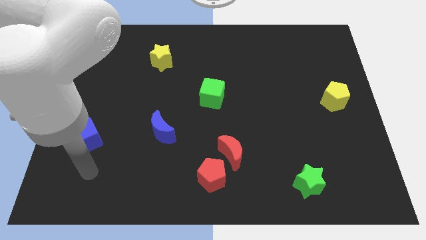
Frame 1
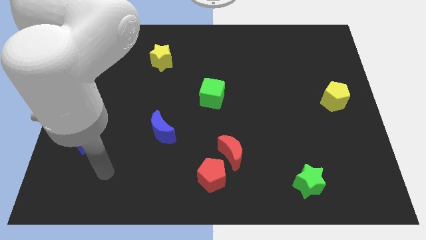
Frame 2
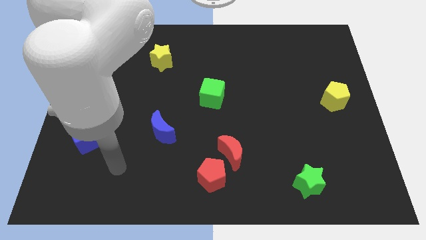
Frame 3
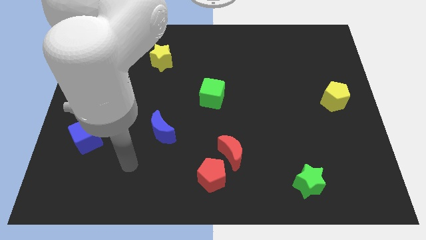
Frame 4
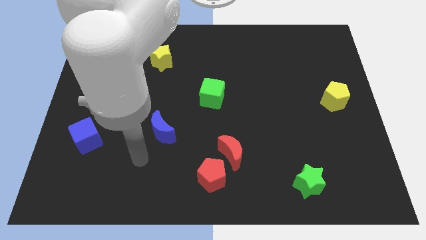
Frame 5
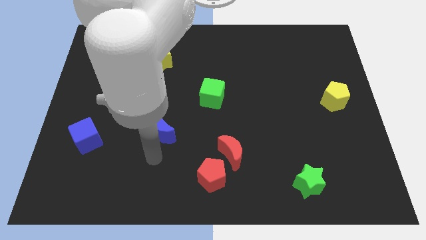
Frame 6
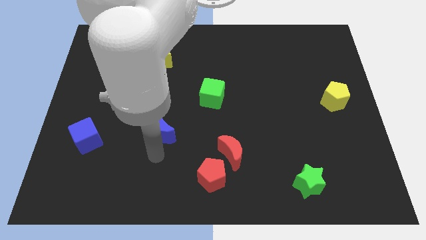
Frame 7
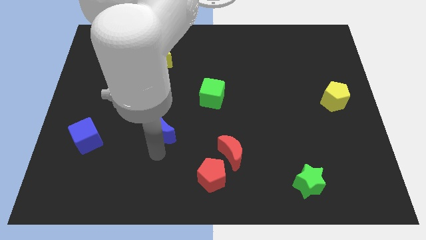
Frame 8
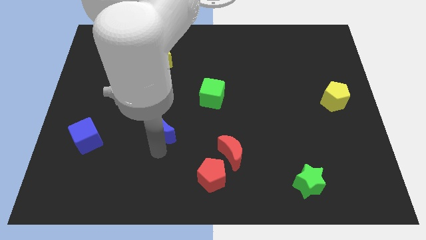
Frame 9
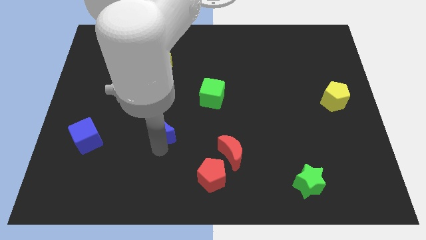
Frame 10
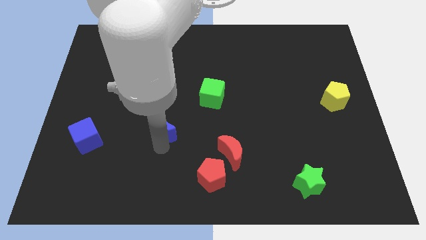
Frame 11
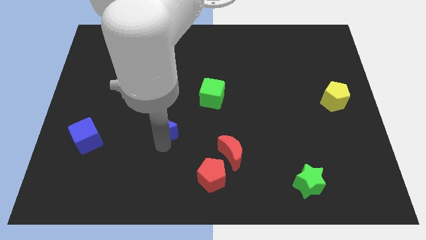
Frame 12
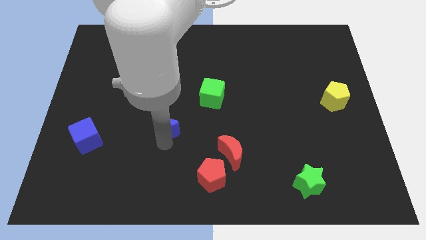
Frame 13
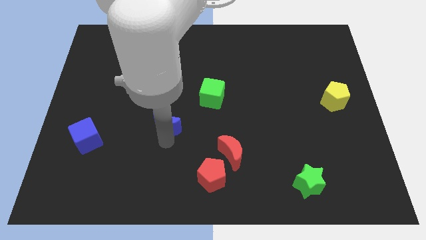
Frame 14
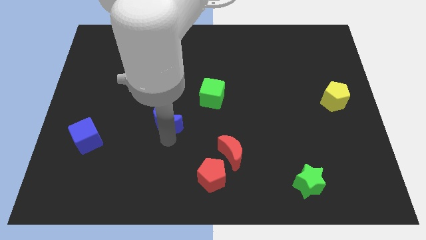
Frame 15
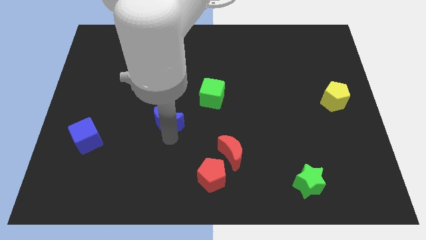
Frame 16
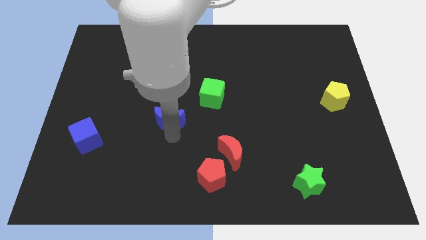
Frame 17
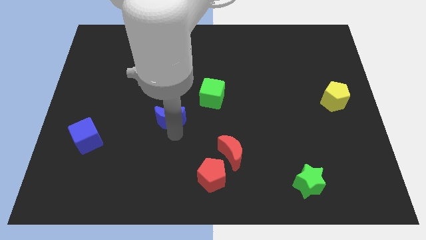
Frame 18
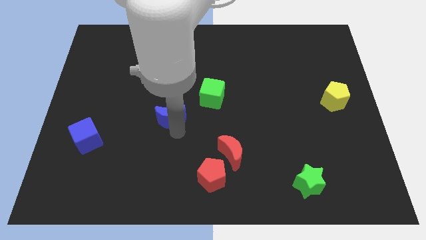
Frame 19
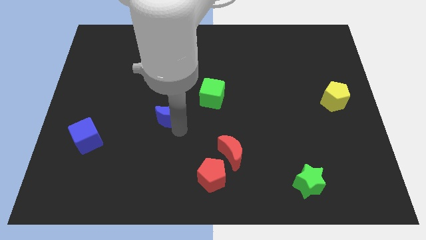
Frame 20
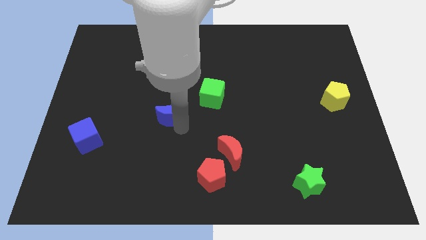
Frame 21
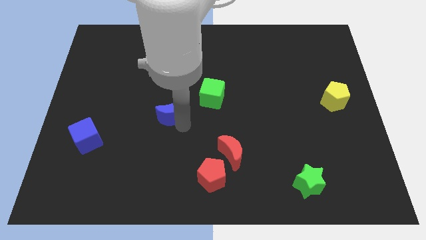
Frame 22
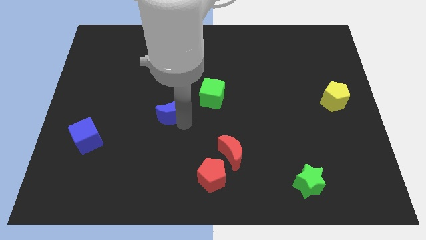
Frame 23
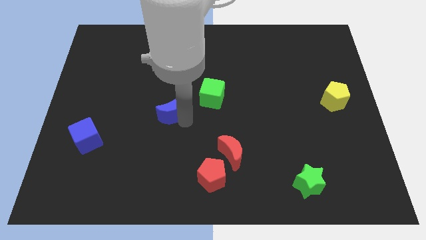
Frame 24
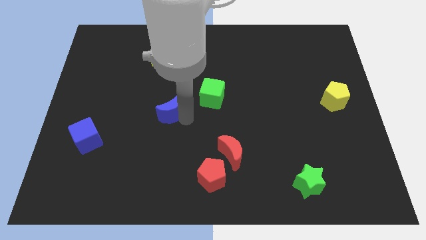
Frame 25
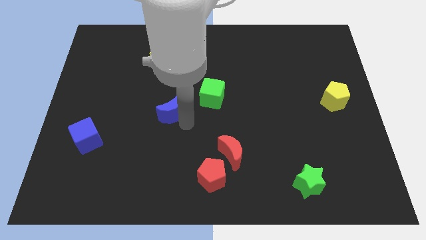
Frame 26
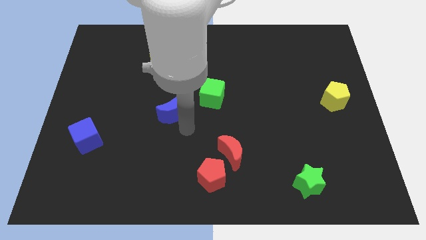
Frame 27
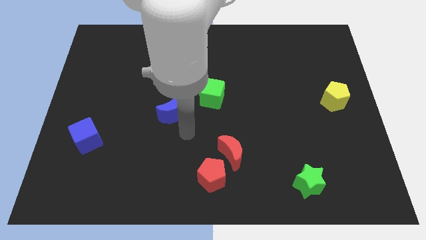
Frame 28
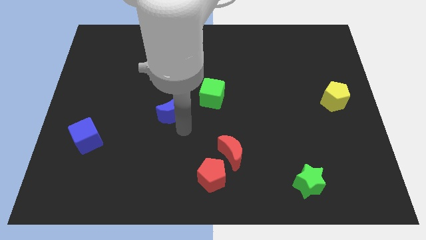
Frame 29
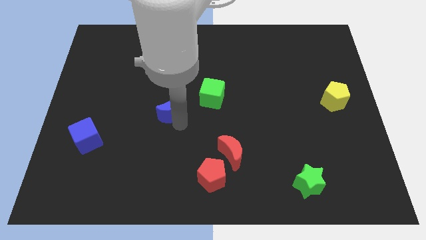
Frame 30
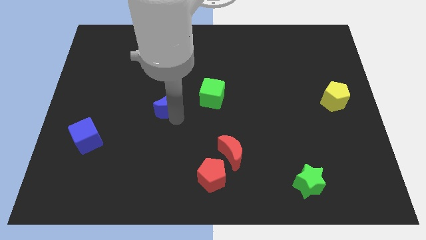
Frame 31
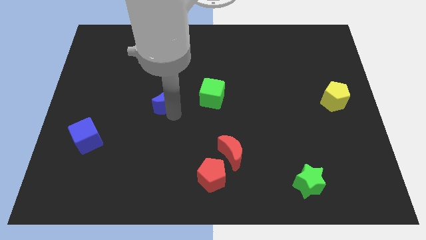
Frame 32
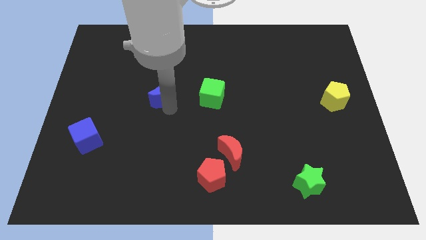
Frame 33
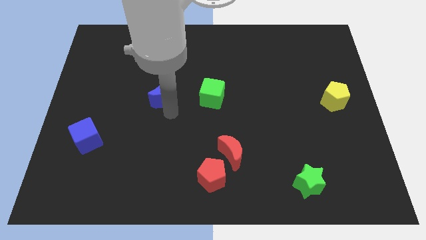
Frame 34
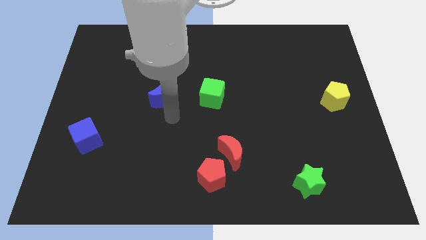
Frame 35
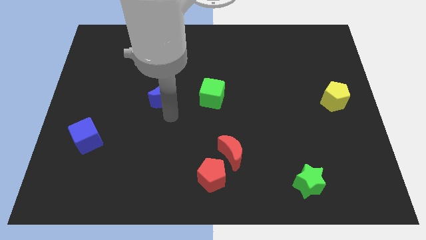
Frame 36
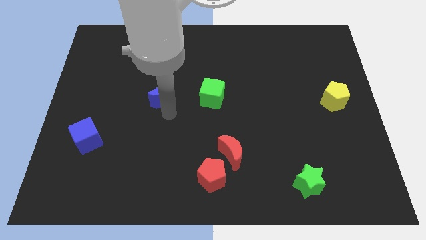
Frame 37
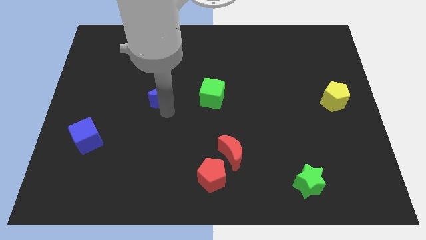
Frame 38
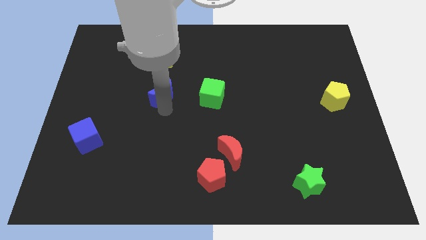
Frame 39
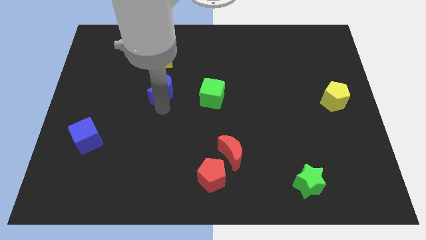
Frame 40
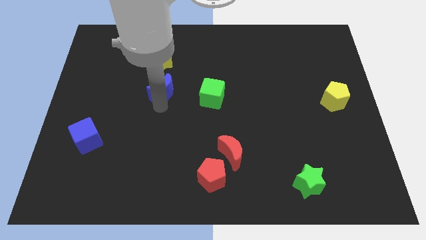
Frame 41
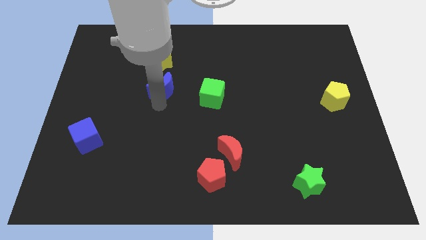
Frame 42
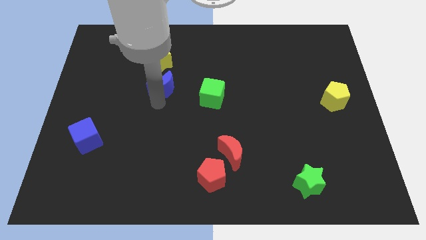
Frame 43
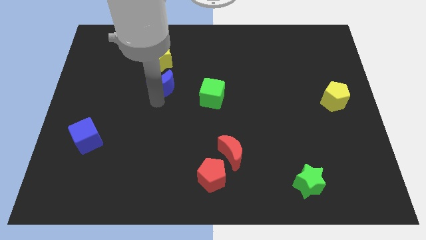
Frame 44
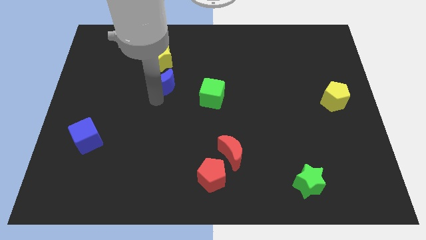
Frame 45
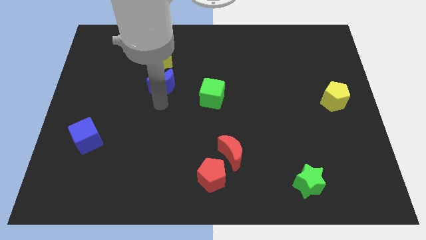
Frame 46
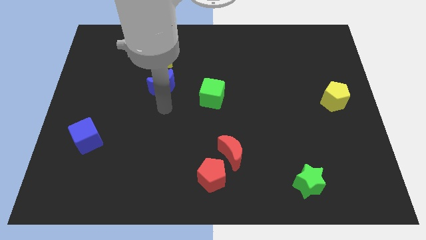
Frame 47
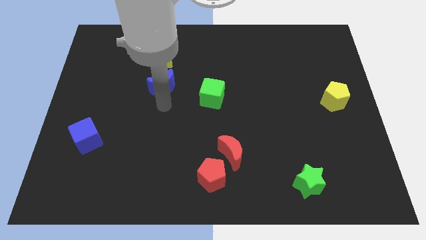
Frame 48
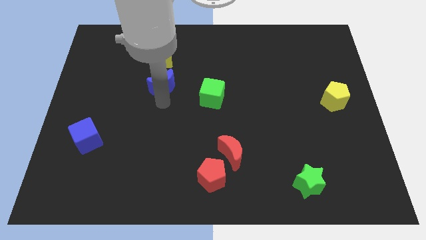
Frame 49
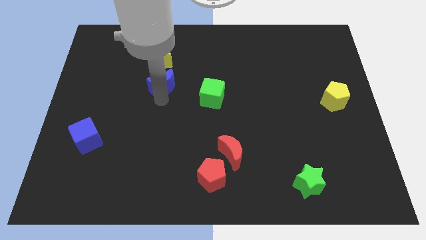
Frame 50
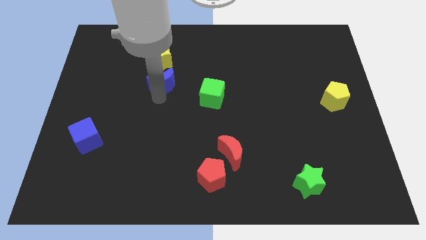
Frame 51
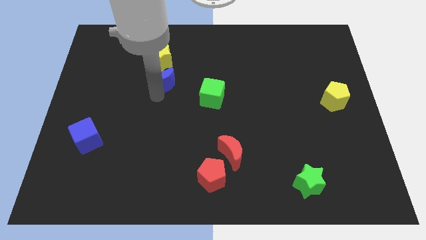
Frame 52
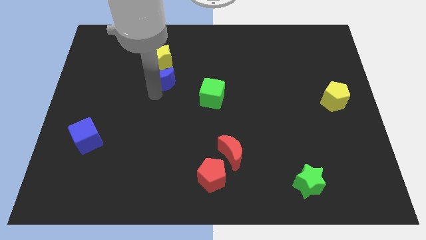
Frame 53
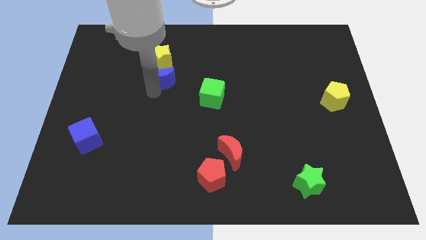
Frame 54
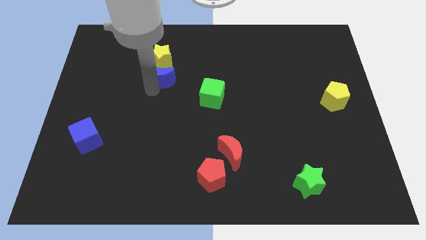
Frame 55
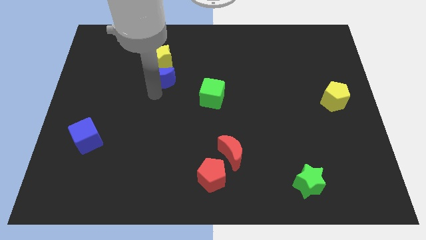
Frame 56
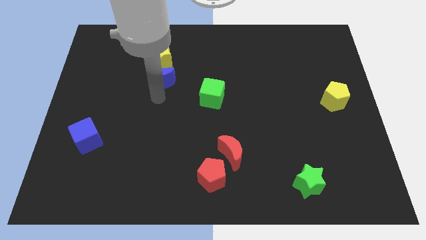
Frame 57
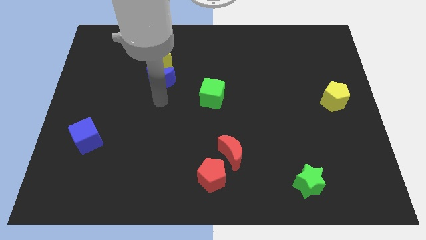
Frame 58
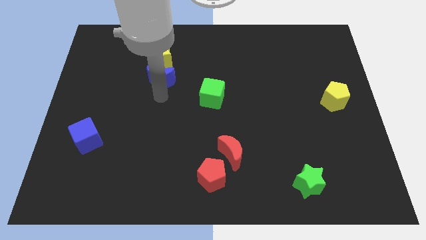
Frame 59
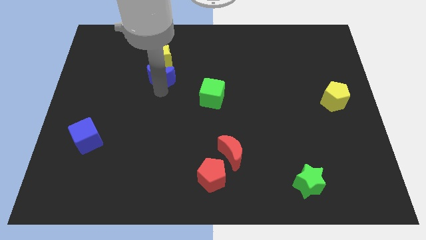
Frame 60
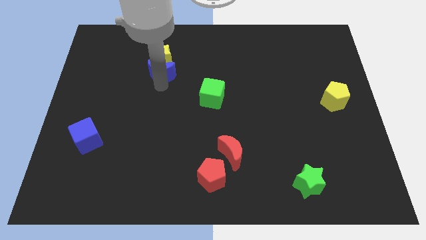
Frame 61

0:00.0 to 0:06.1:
slide the blue moon towards the yellow star
